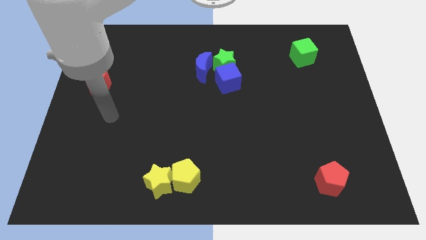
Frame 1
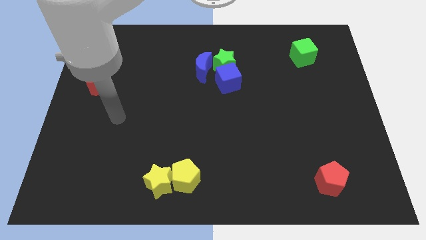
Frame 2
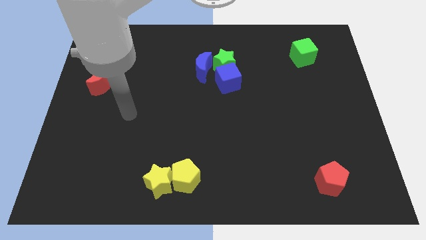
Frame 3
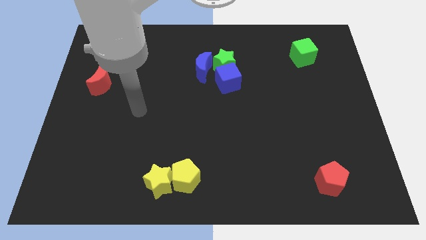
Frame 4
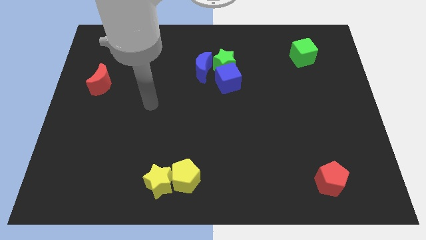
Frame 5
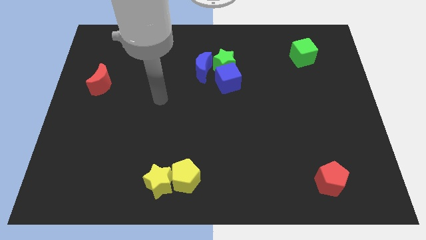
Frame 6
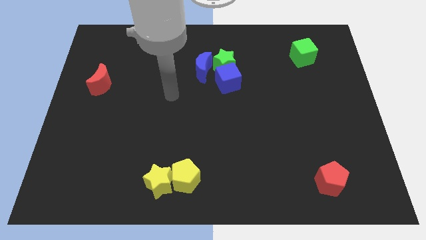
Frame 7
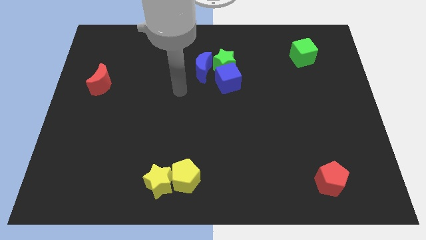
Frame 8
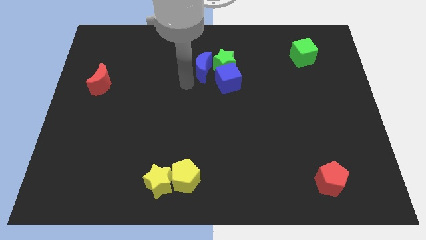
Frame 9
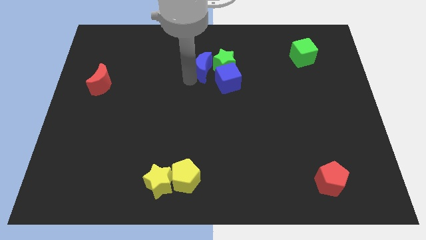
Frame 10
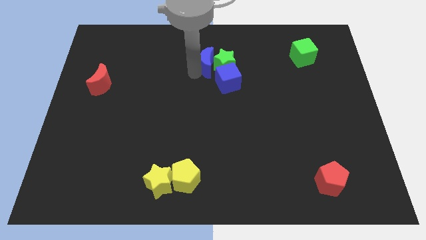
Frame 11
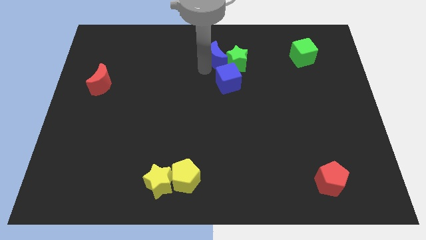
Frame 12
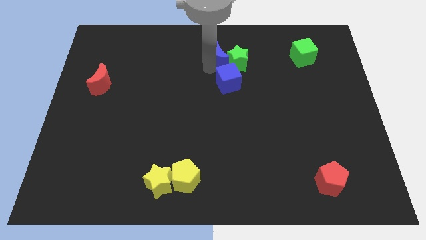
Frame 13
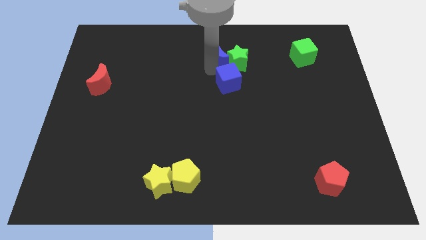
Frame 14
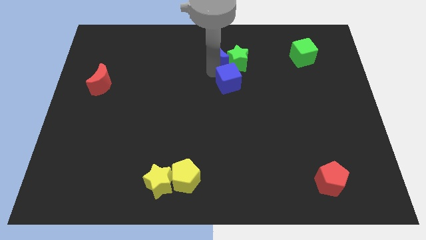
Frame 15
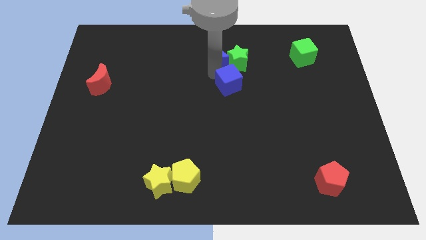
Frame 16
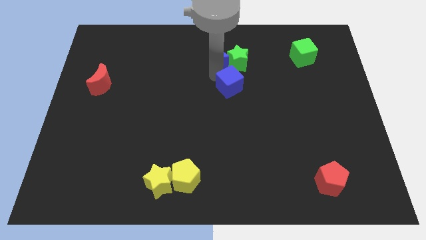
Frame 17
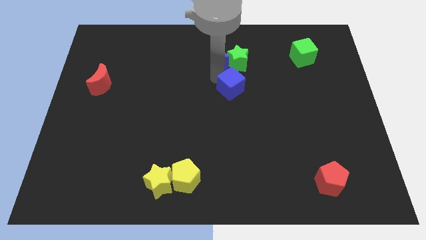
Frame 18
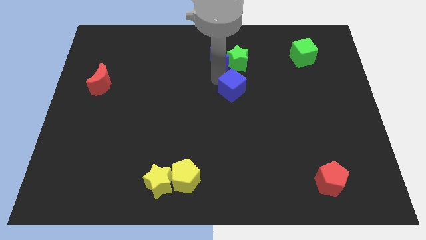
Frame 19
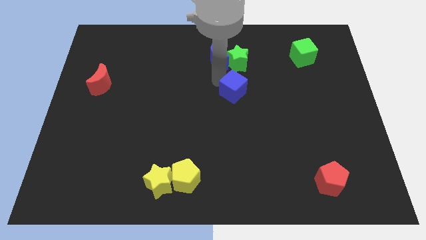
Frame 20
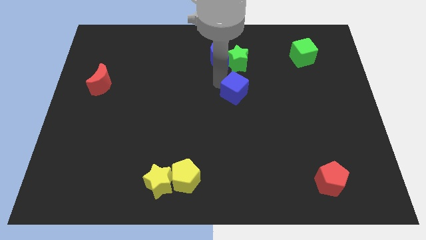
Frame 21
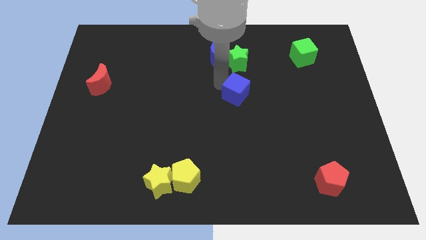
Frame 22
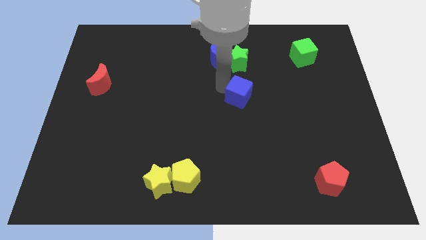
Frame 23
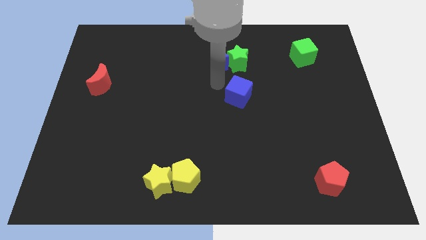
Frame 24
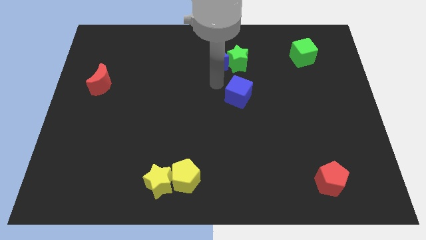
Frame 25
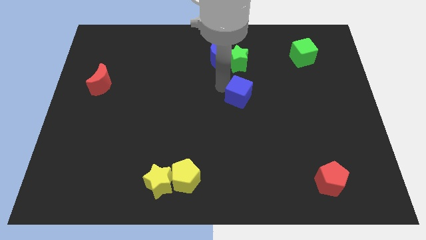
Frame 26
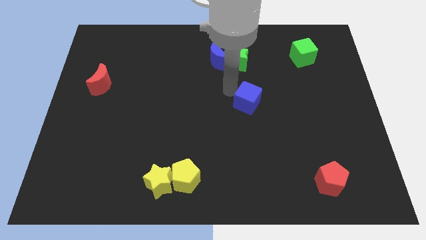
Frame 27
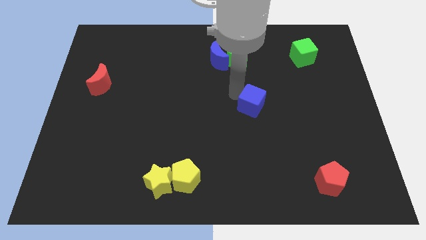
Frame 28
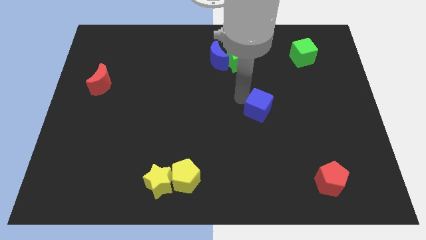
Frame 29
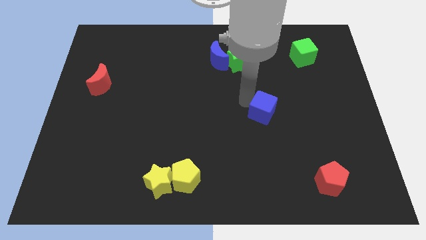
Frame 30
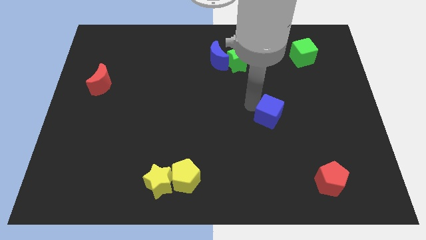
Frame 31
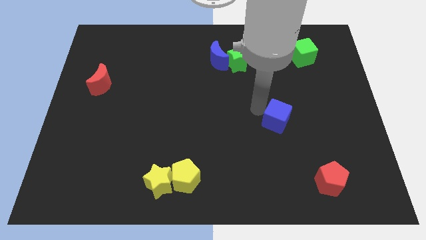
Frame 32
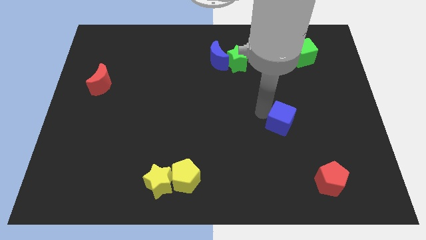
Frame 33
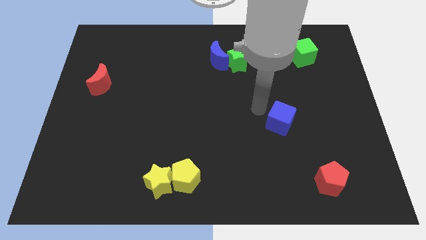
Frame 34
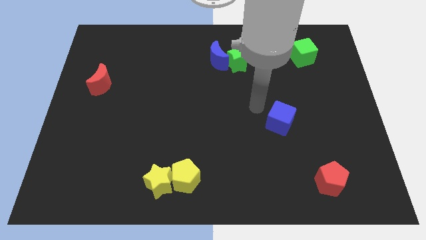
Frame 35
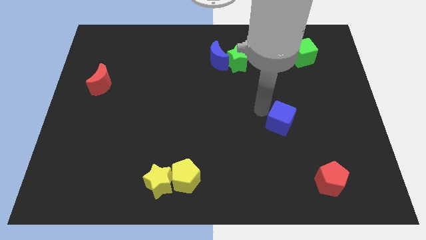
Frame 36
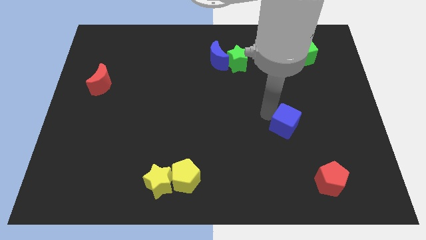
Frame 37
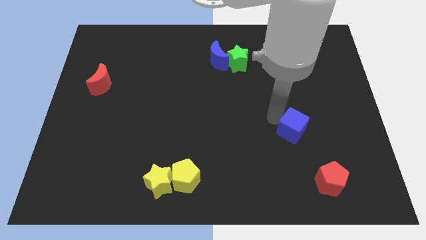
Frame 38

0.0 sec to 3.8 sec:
push the blue cube down and then right

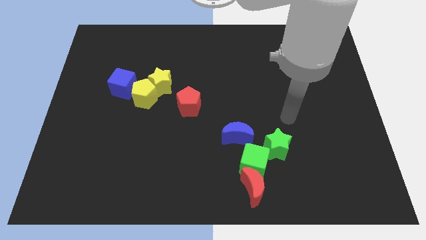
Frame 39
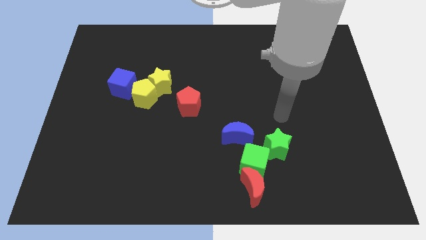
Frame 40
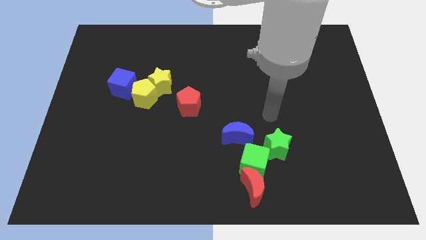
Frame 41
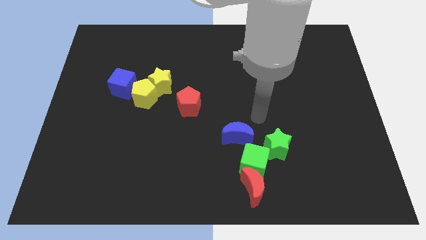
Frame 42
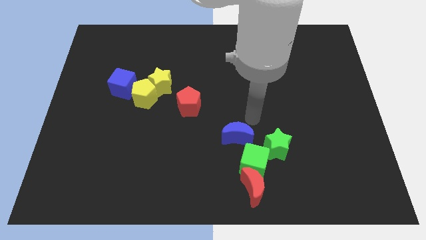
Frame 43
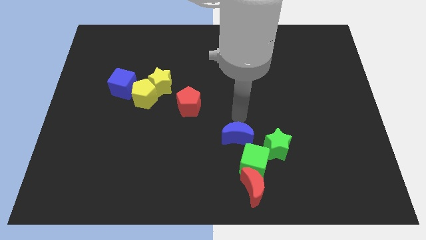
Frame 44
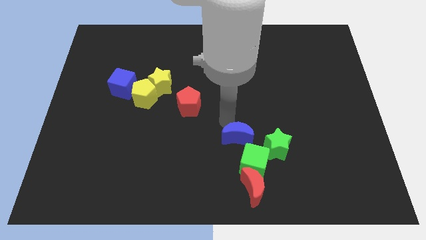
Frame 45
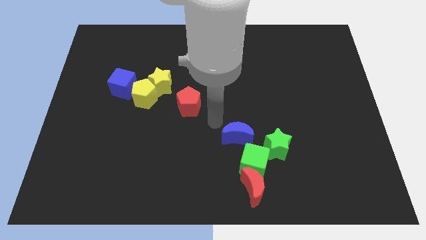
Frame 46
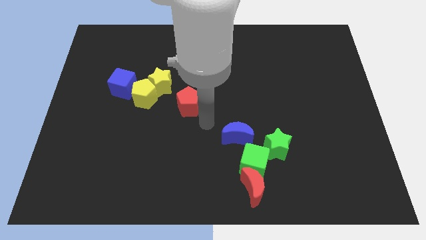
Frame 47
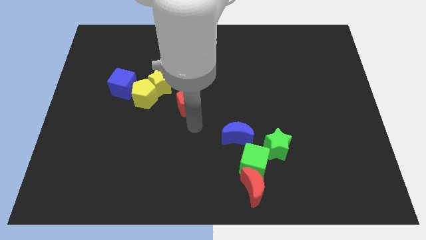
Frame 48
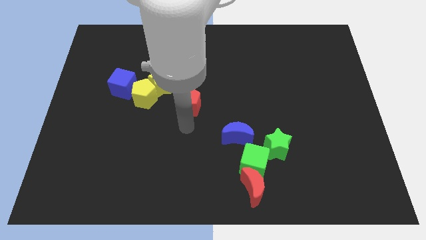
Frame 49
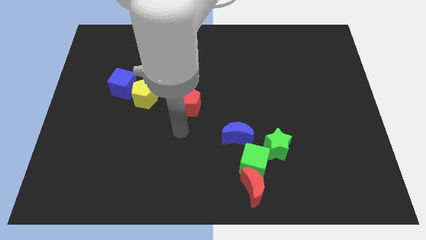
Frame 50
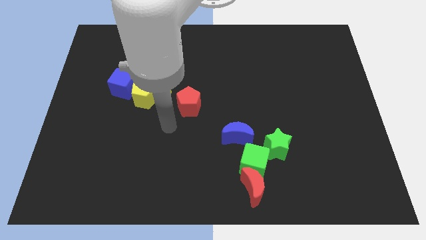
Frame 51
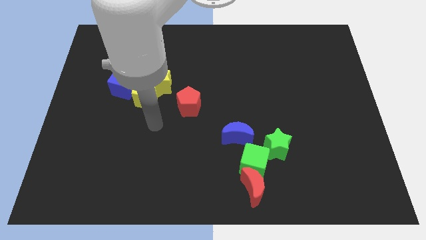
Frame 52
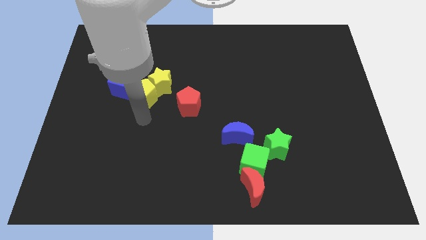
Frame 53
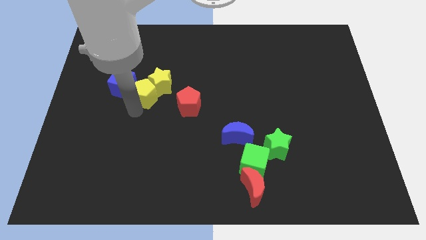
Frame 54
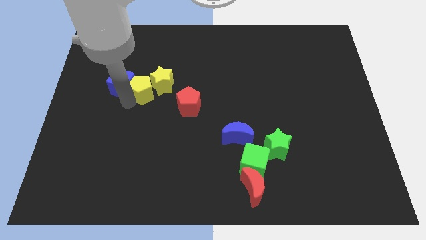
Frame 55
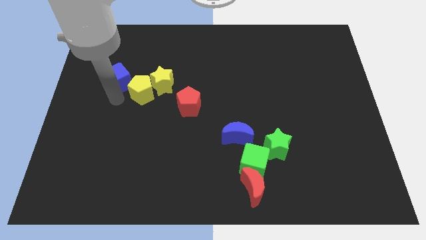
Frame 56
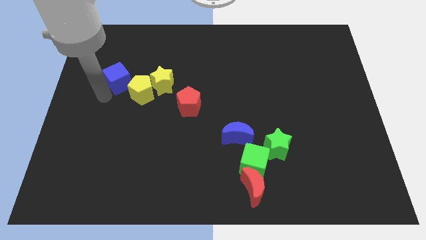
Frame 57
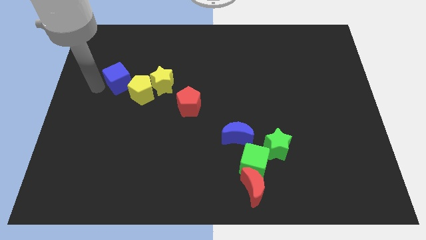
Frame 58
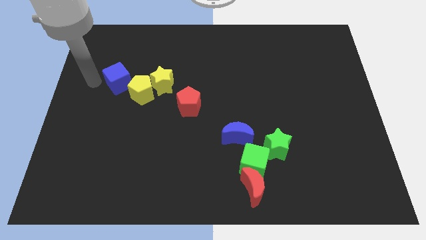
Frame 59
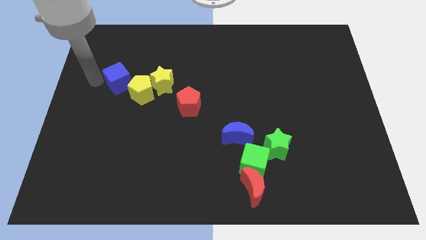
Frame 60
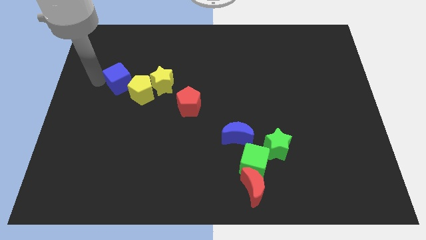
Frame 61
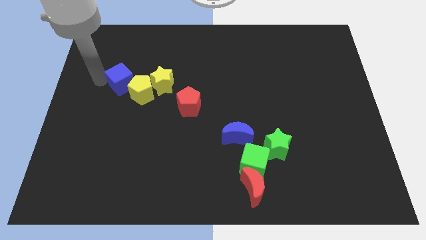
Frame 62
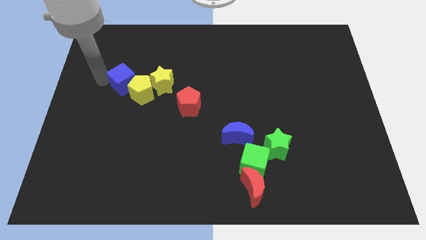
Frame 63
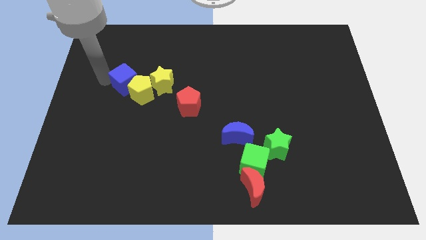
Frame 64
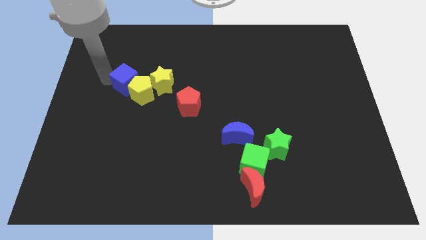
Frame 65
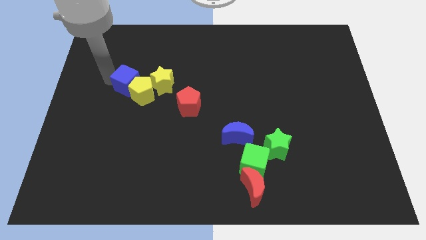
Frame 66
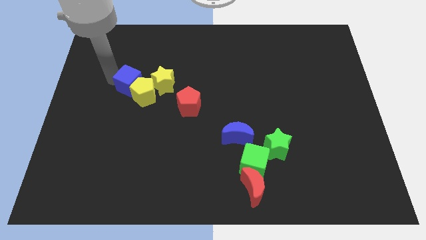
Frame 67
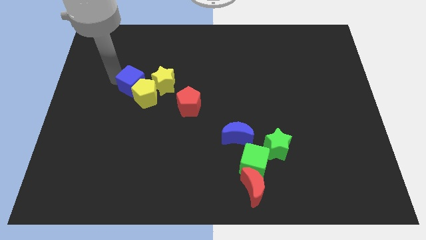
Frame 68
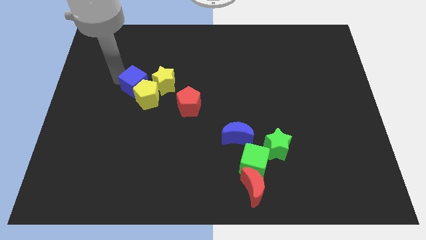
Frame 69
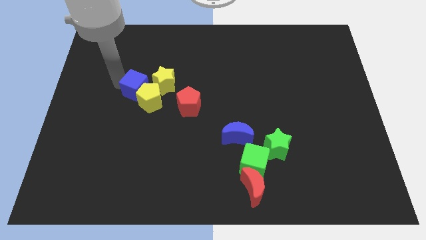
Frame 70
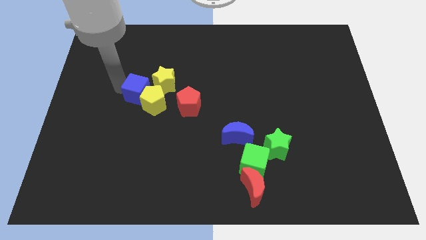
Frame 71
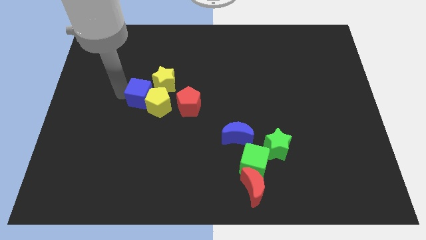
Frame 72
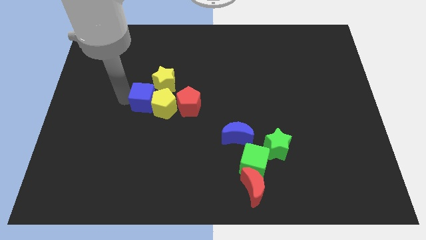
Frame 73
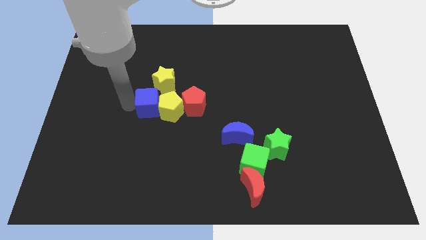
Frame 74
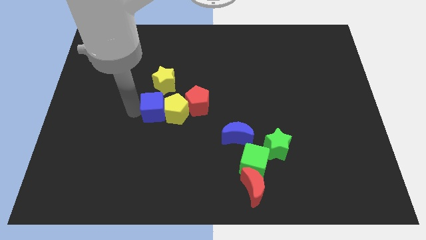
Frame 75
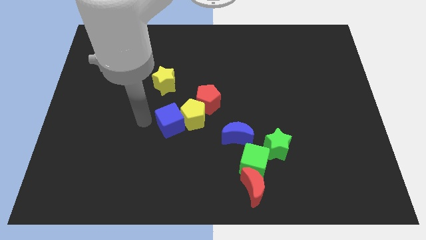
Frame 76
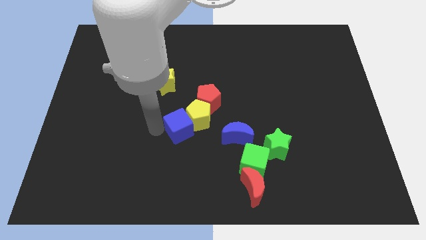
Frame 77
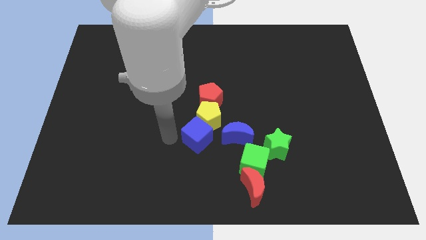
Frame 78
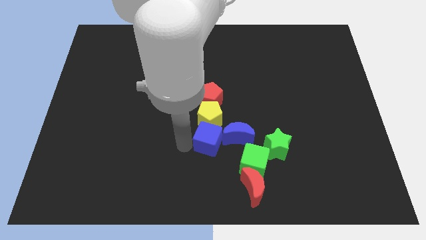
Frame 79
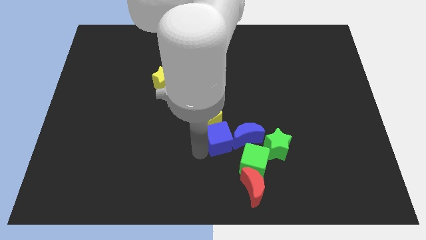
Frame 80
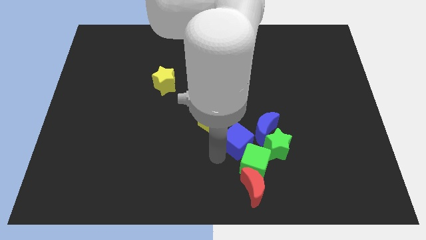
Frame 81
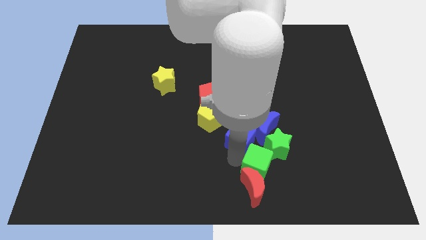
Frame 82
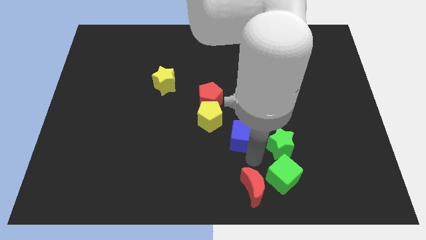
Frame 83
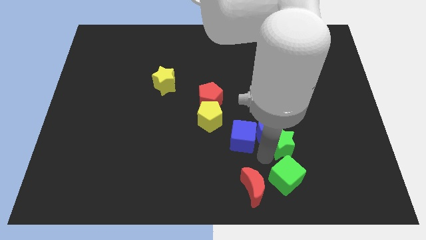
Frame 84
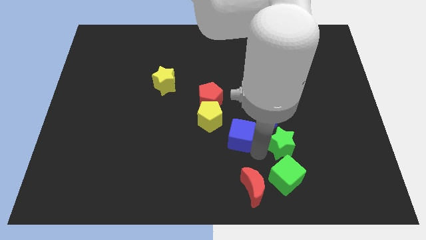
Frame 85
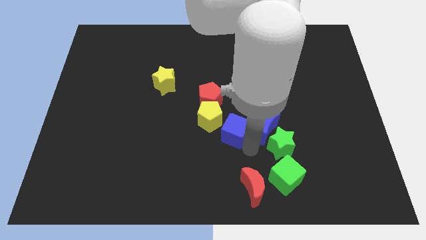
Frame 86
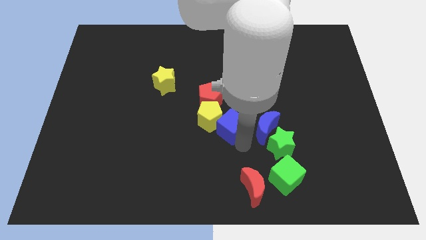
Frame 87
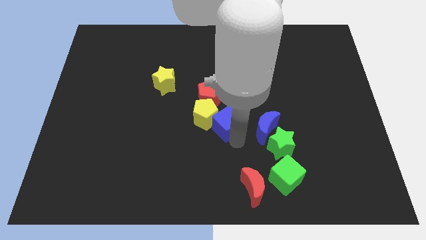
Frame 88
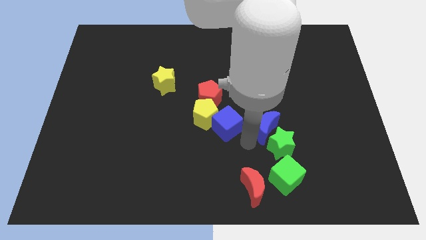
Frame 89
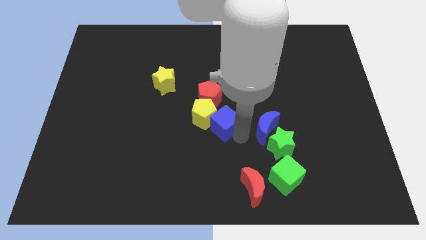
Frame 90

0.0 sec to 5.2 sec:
slightly move the blue cube to the right
